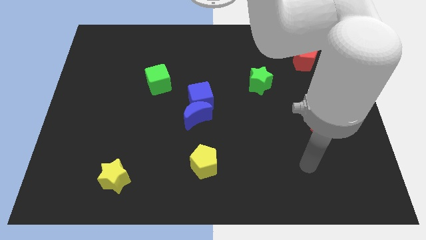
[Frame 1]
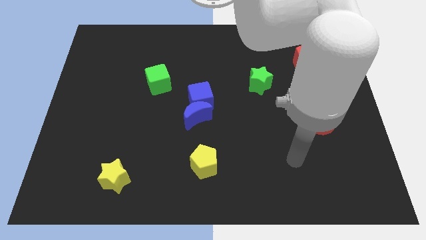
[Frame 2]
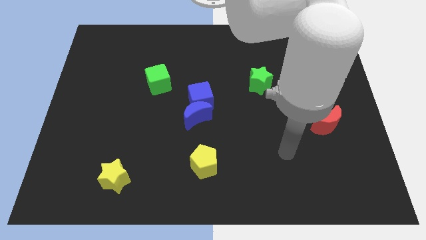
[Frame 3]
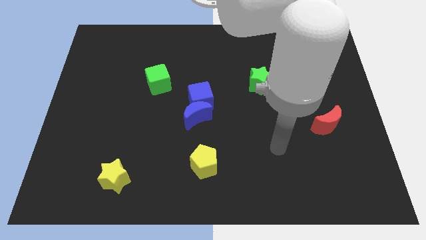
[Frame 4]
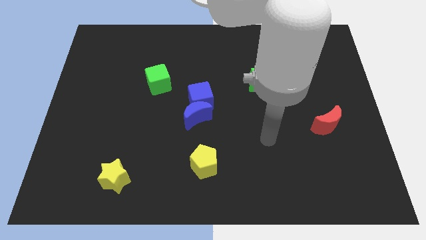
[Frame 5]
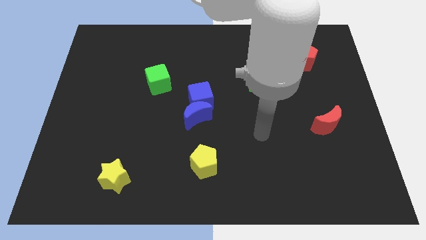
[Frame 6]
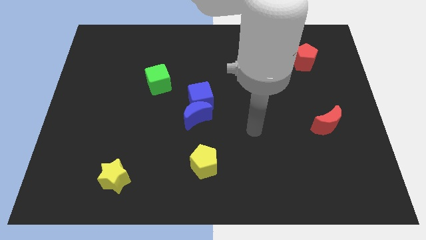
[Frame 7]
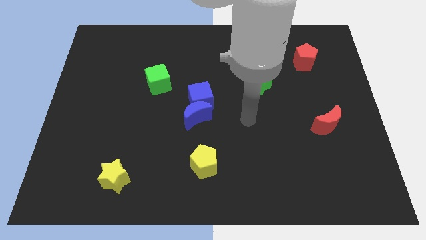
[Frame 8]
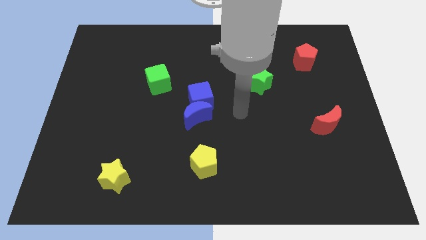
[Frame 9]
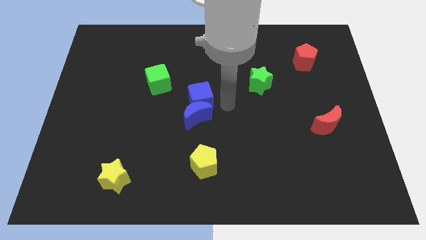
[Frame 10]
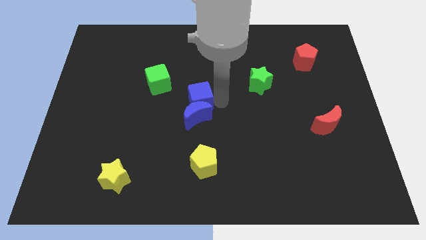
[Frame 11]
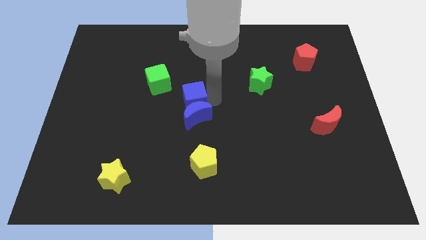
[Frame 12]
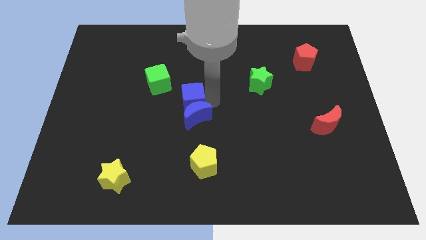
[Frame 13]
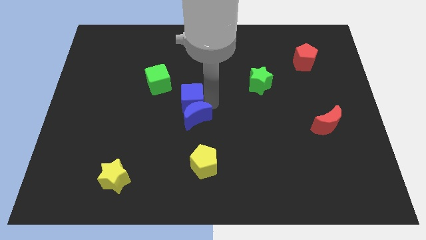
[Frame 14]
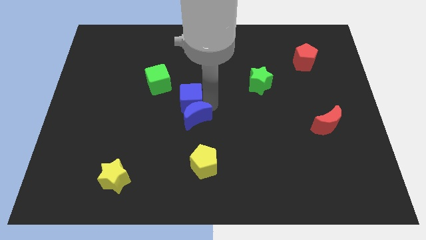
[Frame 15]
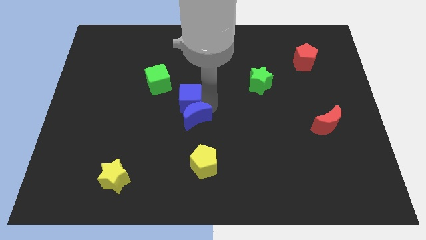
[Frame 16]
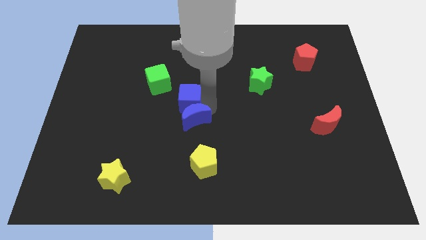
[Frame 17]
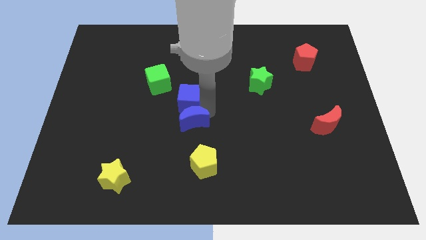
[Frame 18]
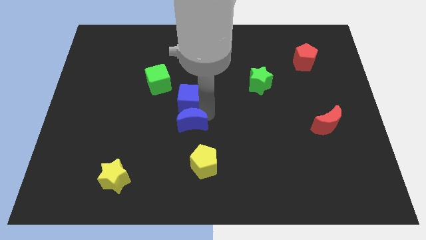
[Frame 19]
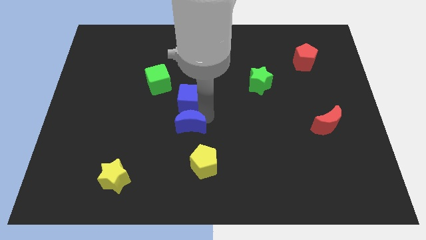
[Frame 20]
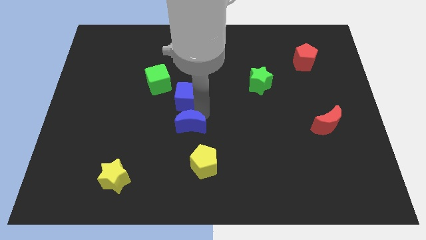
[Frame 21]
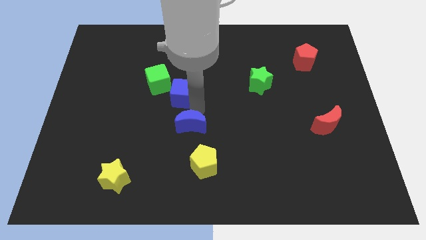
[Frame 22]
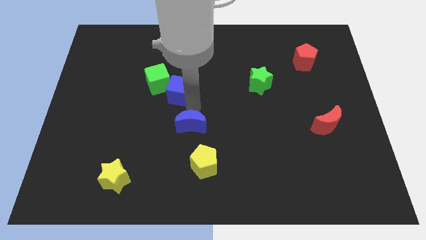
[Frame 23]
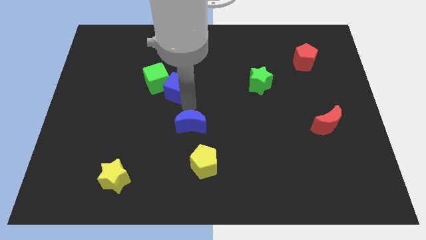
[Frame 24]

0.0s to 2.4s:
separate the blue moon from the blue cube

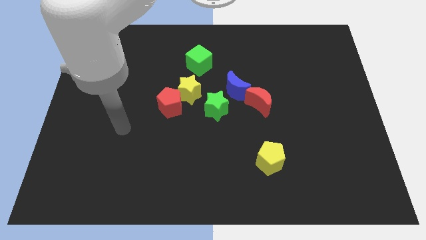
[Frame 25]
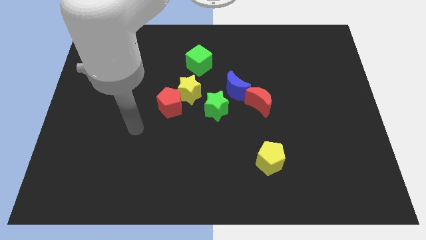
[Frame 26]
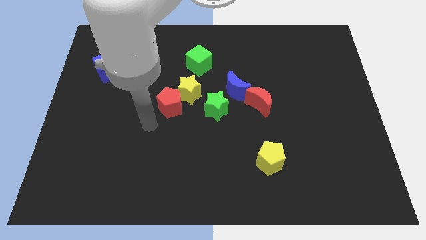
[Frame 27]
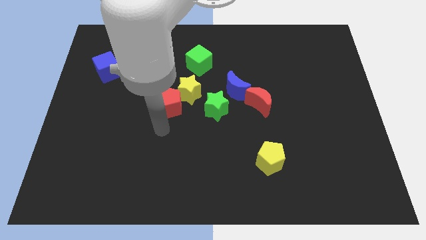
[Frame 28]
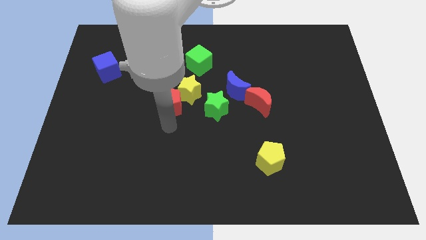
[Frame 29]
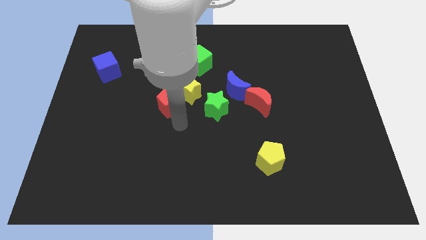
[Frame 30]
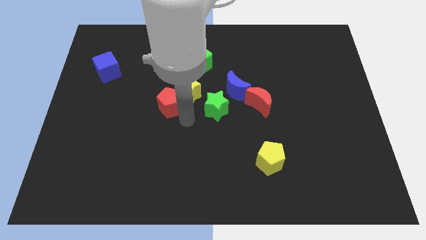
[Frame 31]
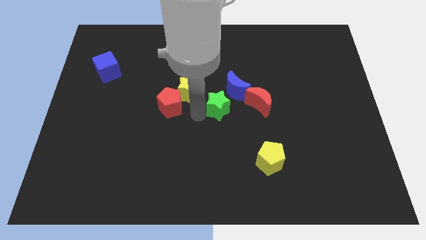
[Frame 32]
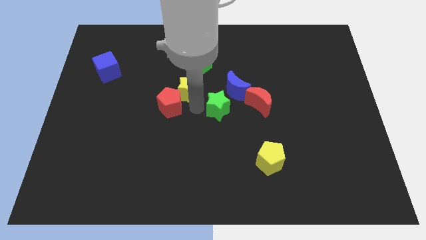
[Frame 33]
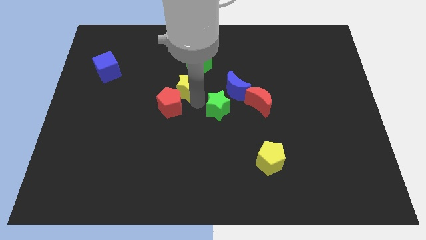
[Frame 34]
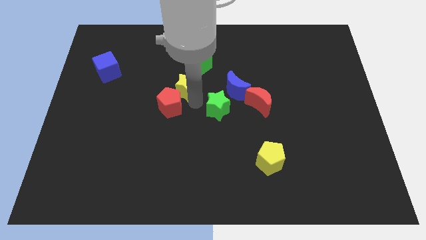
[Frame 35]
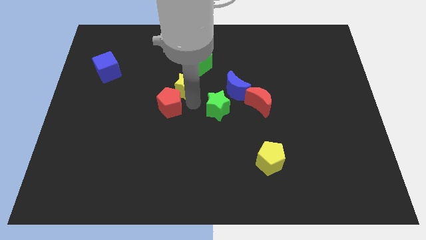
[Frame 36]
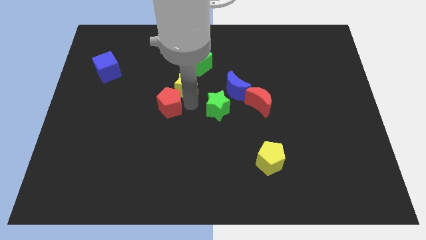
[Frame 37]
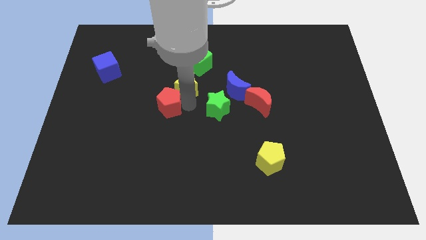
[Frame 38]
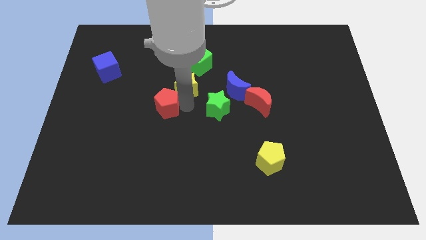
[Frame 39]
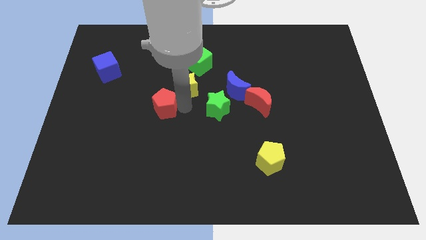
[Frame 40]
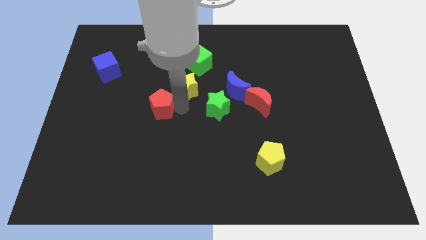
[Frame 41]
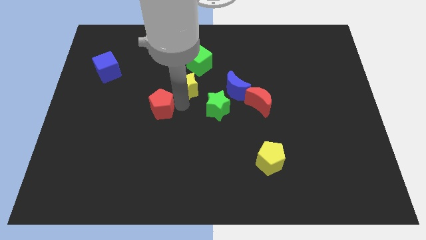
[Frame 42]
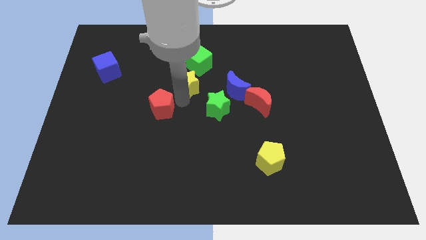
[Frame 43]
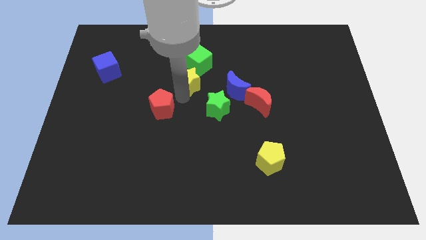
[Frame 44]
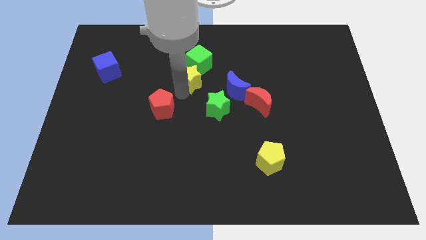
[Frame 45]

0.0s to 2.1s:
move the red pentagon away from the yellow star

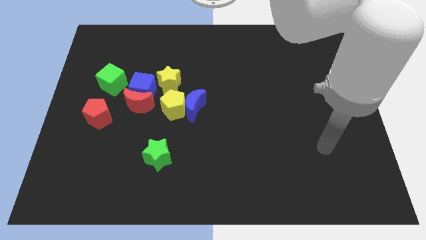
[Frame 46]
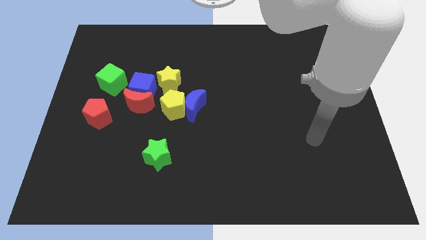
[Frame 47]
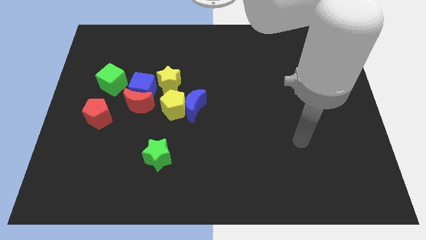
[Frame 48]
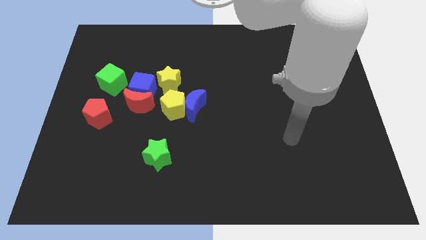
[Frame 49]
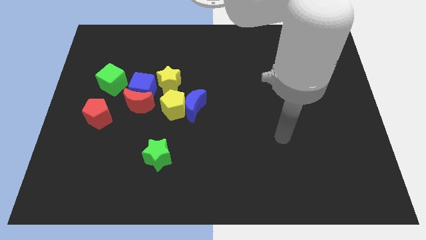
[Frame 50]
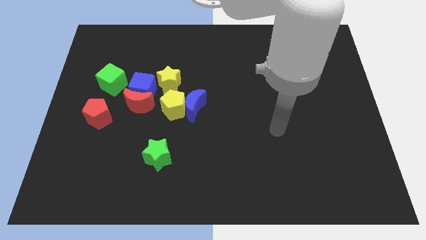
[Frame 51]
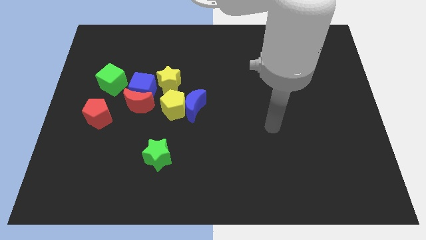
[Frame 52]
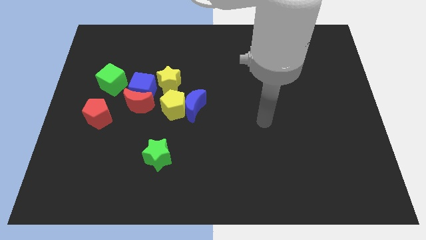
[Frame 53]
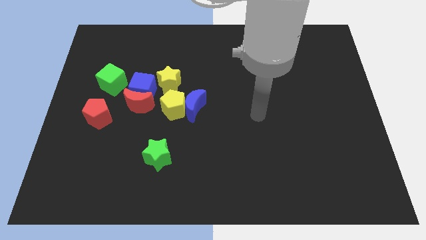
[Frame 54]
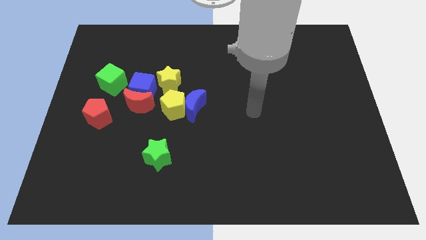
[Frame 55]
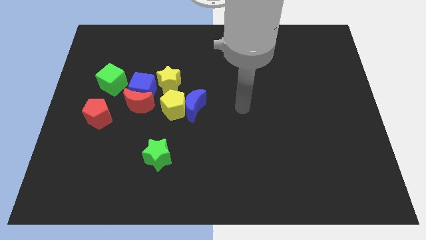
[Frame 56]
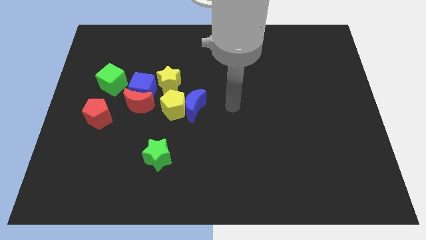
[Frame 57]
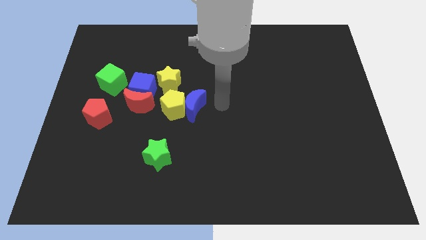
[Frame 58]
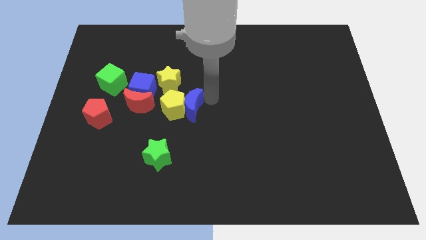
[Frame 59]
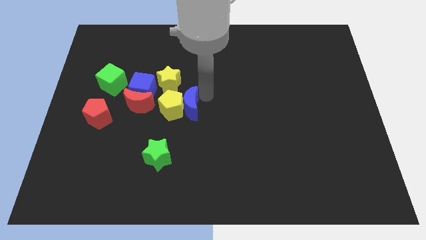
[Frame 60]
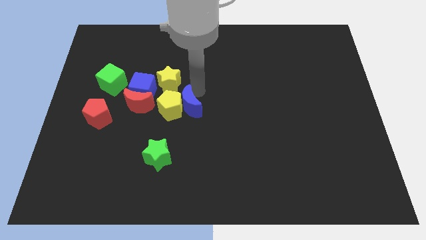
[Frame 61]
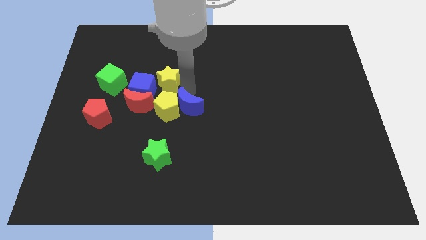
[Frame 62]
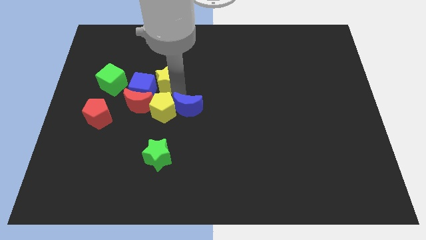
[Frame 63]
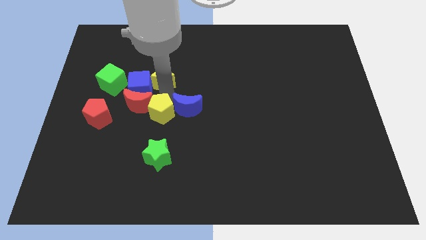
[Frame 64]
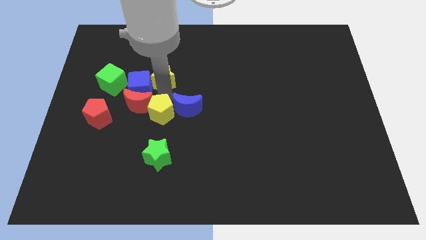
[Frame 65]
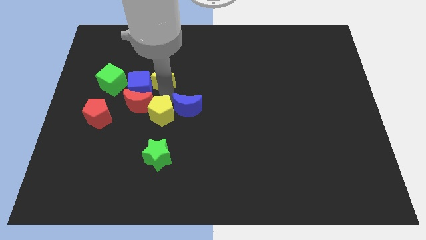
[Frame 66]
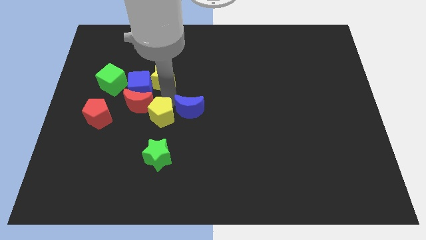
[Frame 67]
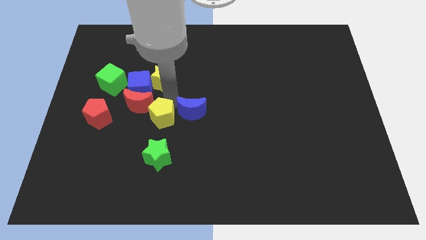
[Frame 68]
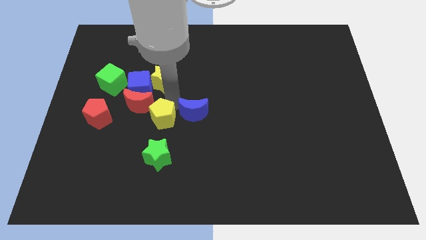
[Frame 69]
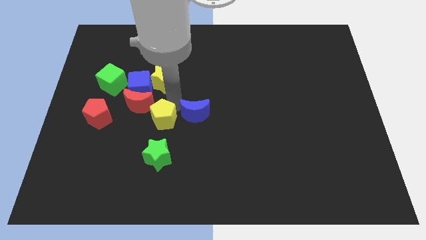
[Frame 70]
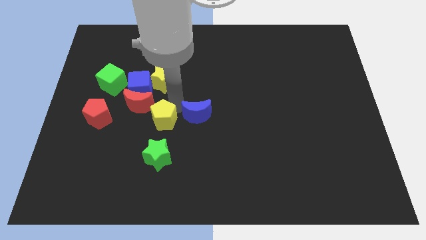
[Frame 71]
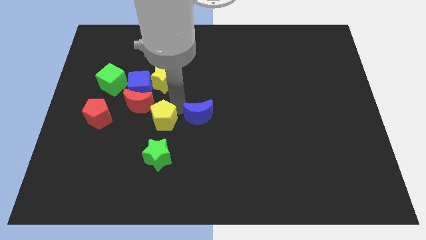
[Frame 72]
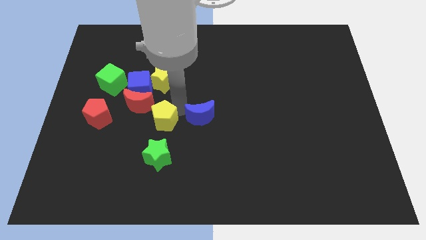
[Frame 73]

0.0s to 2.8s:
separate the blue moon from the yellow pentagon and yellow star

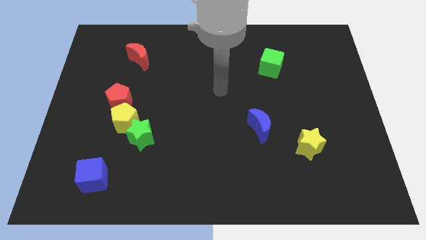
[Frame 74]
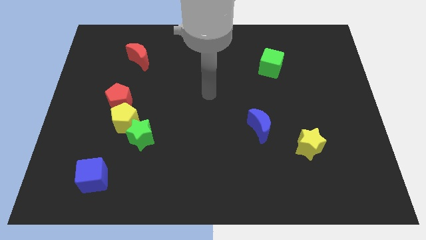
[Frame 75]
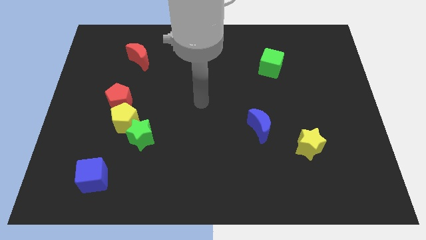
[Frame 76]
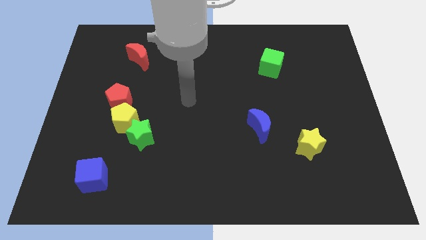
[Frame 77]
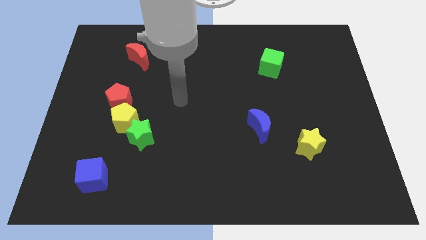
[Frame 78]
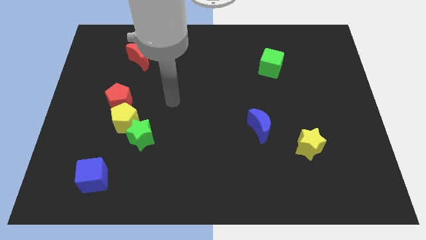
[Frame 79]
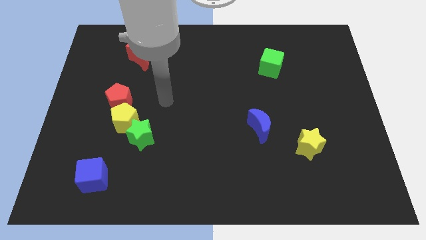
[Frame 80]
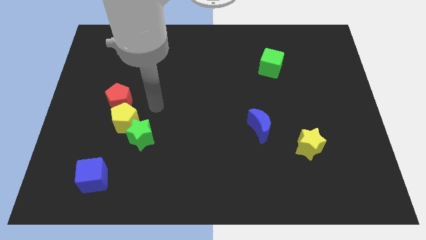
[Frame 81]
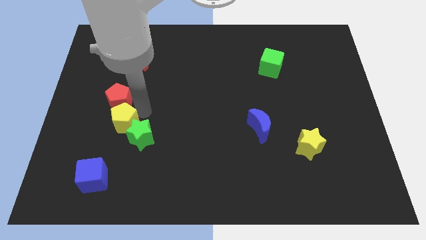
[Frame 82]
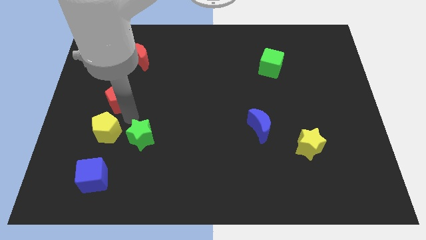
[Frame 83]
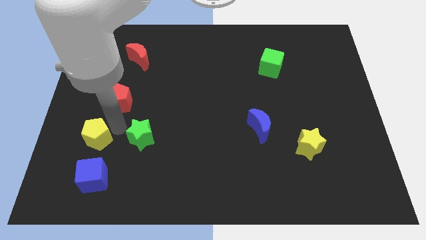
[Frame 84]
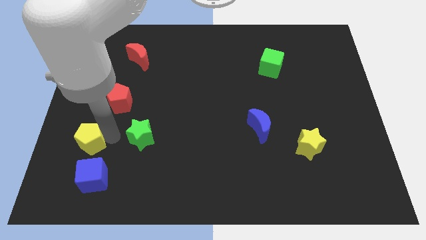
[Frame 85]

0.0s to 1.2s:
pull the green star apart from the yellow pentagon

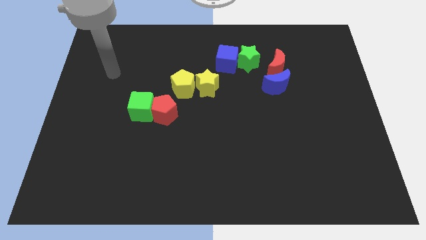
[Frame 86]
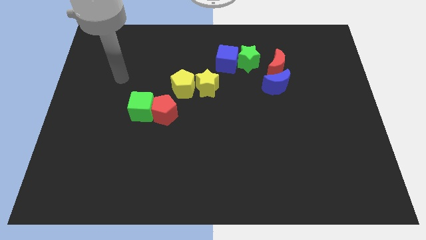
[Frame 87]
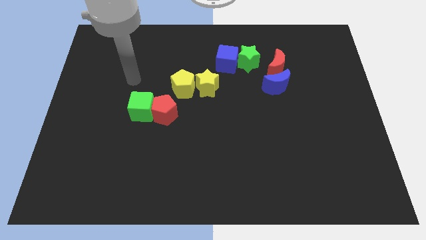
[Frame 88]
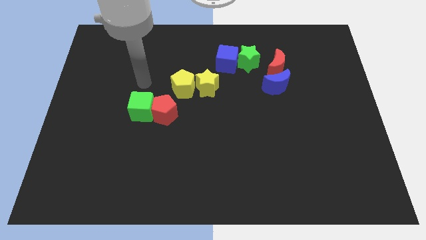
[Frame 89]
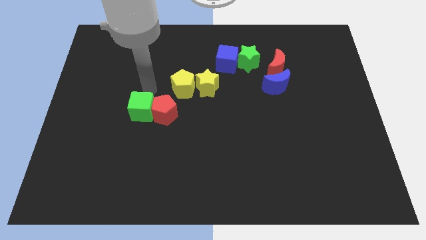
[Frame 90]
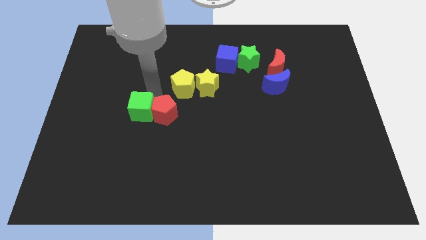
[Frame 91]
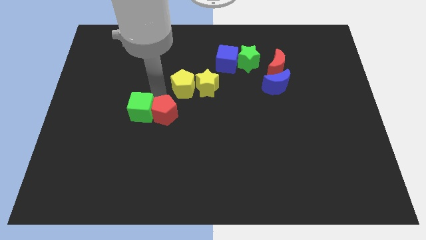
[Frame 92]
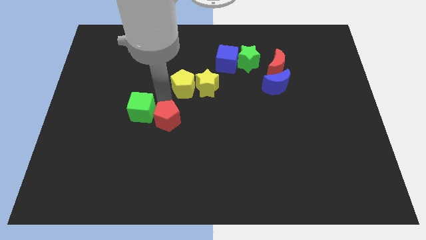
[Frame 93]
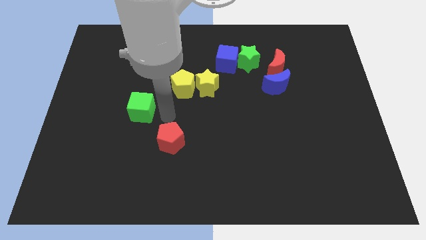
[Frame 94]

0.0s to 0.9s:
move the green cube away from the red pentagon
